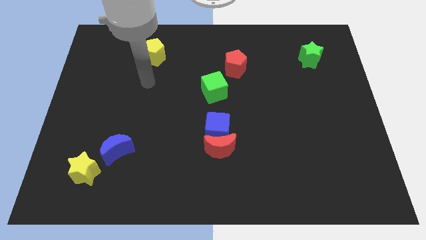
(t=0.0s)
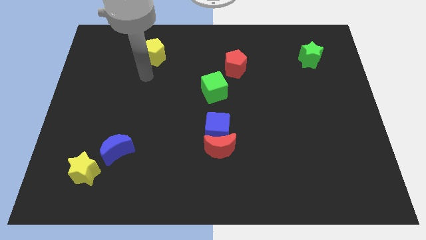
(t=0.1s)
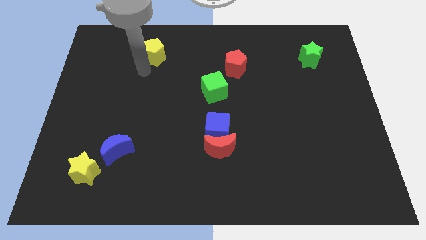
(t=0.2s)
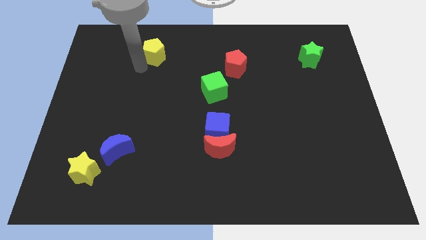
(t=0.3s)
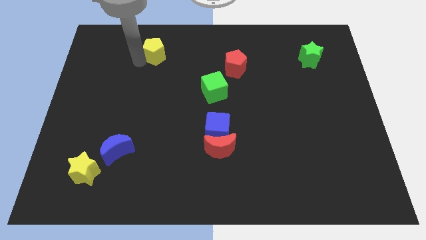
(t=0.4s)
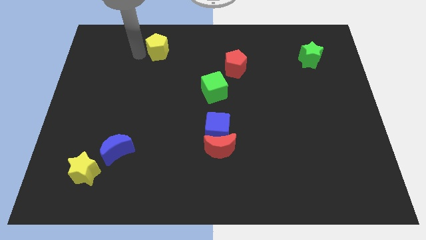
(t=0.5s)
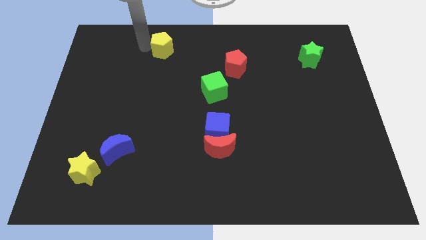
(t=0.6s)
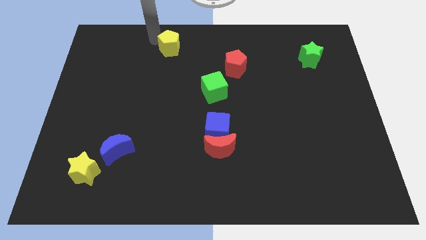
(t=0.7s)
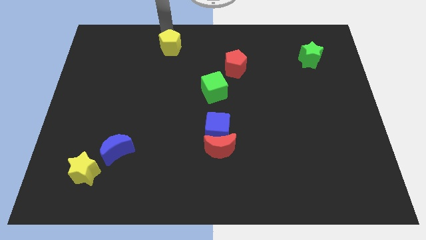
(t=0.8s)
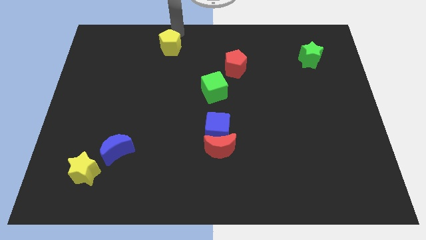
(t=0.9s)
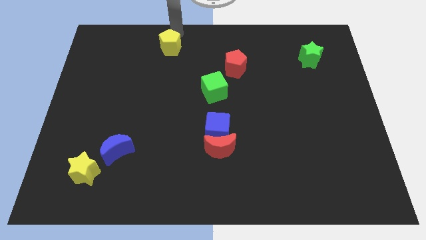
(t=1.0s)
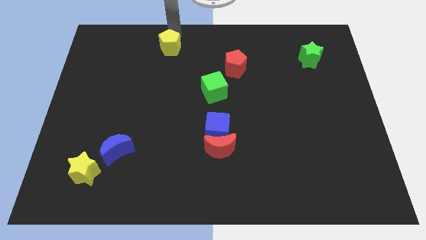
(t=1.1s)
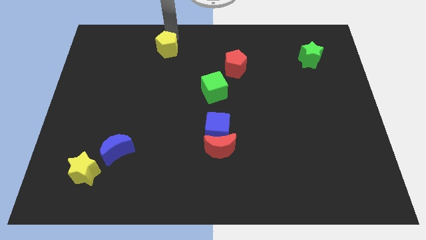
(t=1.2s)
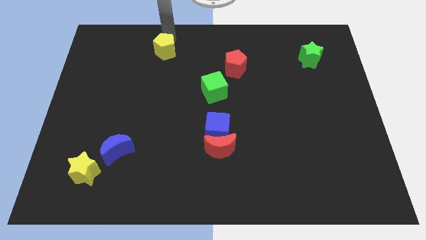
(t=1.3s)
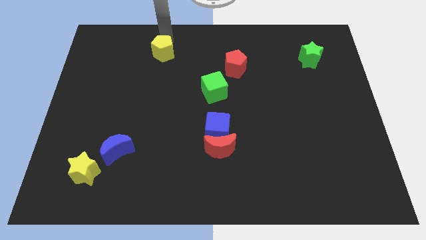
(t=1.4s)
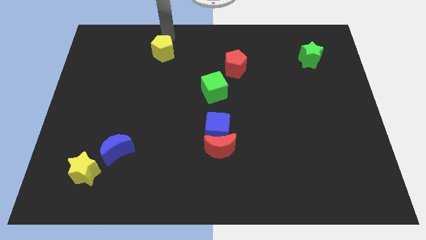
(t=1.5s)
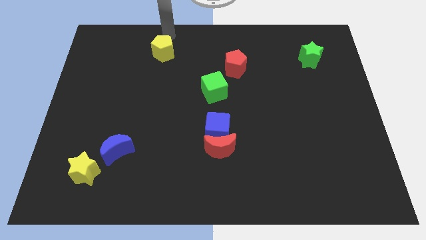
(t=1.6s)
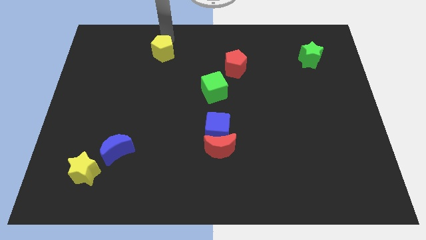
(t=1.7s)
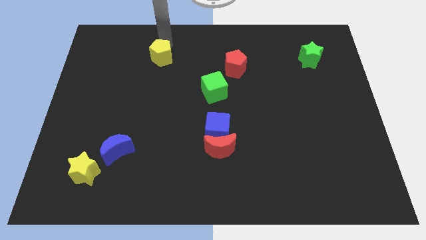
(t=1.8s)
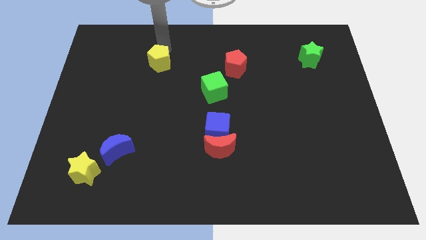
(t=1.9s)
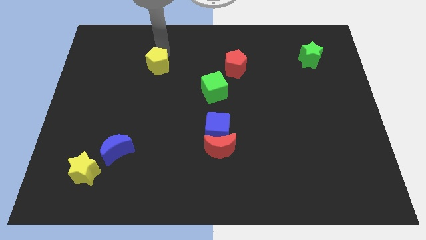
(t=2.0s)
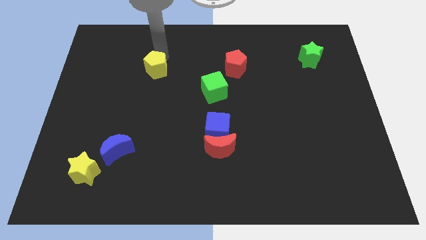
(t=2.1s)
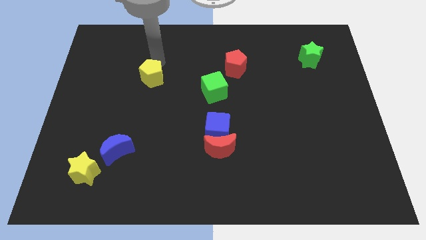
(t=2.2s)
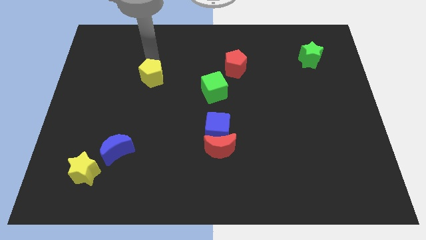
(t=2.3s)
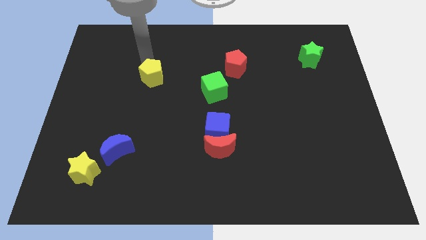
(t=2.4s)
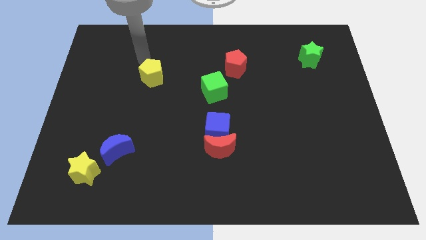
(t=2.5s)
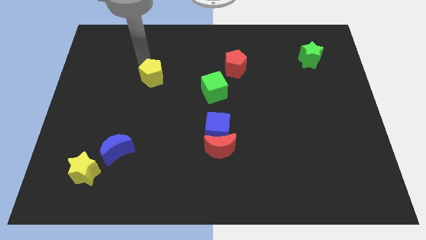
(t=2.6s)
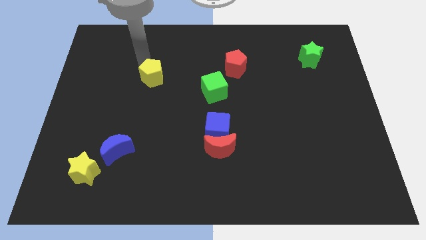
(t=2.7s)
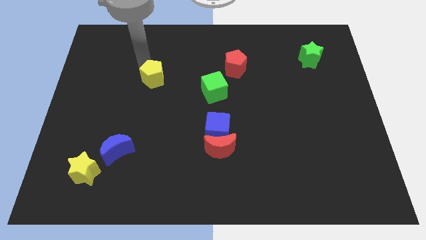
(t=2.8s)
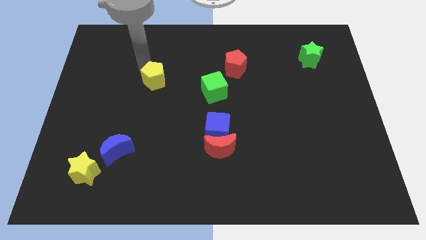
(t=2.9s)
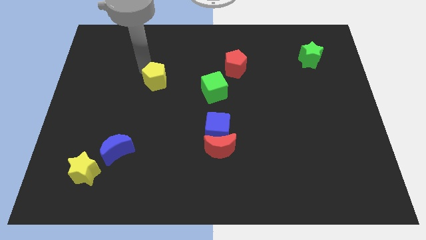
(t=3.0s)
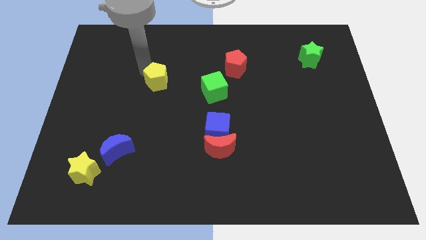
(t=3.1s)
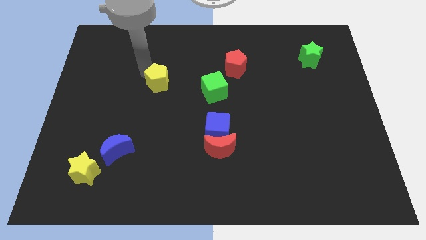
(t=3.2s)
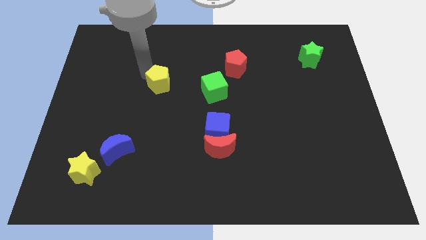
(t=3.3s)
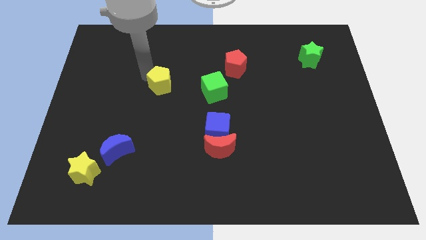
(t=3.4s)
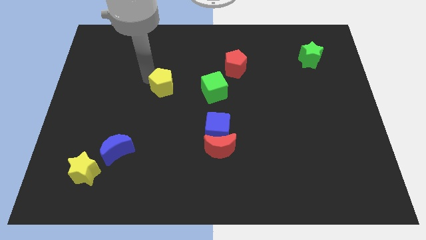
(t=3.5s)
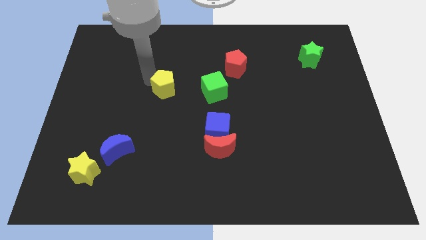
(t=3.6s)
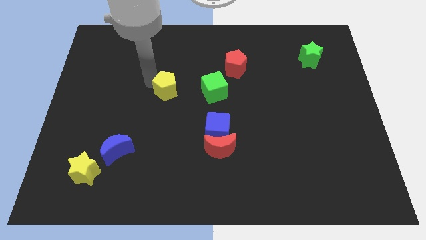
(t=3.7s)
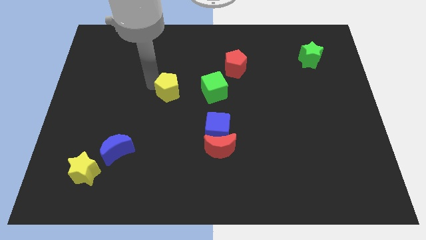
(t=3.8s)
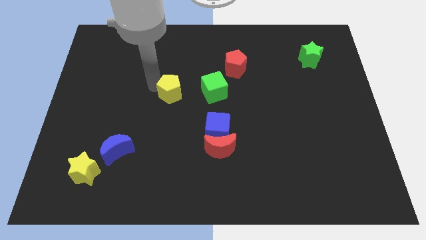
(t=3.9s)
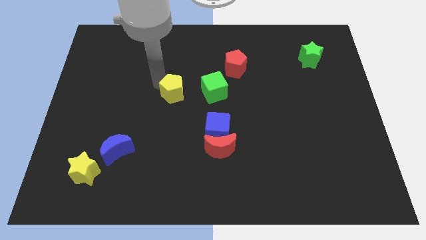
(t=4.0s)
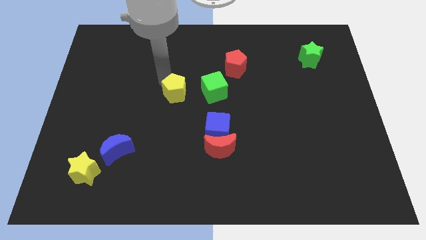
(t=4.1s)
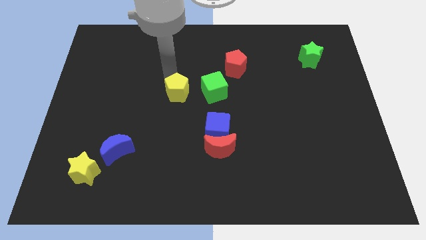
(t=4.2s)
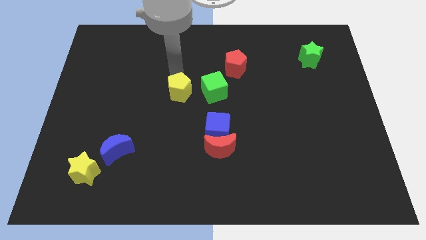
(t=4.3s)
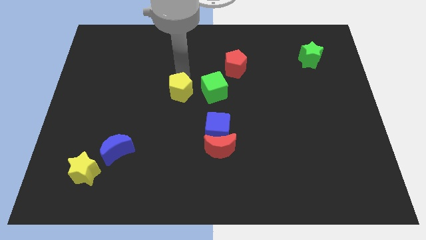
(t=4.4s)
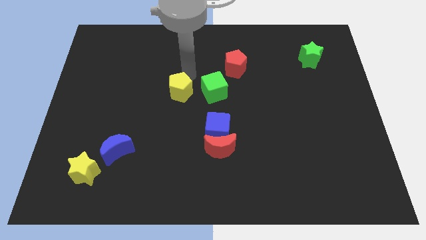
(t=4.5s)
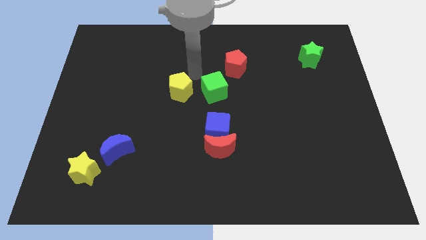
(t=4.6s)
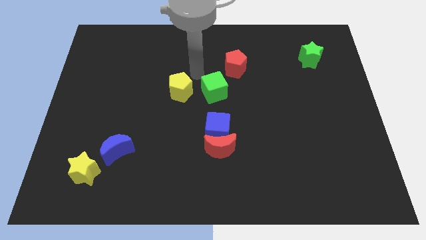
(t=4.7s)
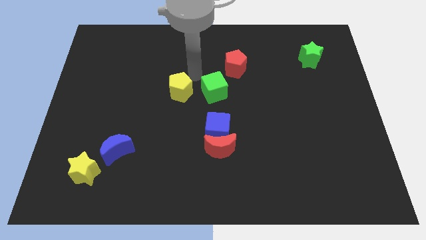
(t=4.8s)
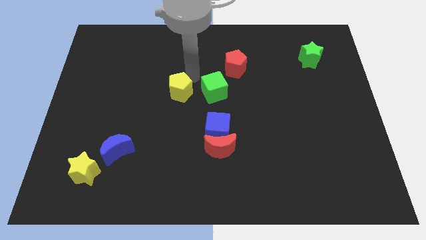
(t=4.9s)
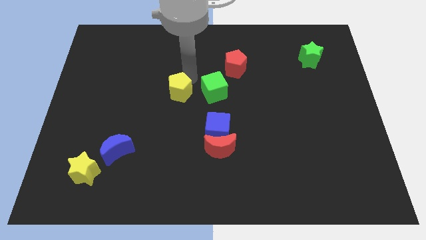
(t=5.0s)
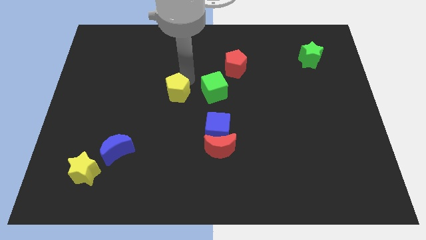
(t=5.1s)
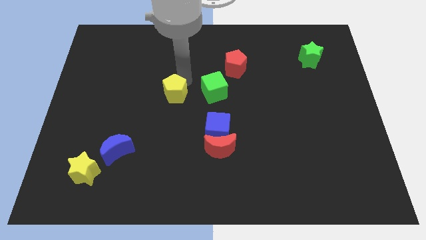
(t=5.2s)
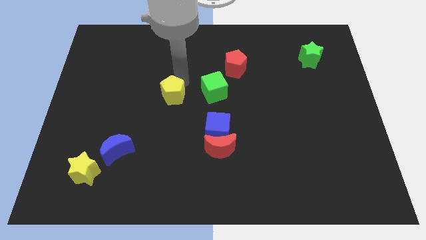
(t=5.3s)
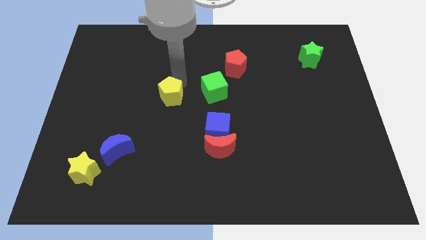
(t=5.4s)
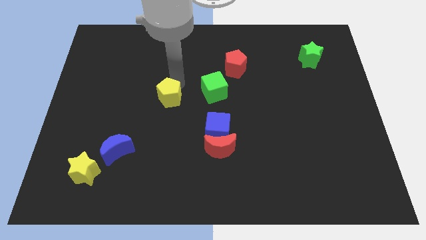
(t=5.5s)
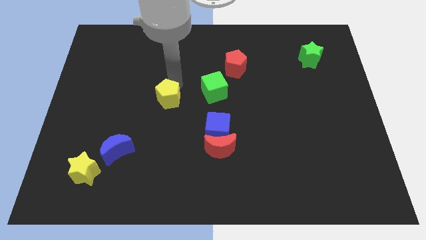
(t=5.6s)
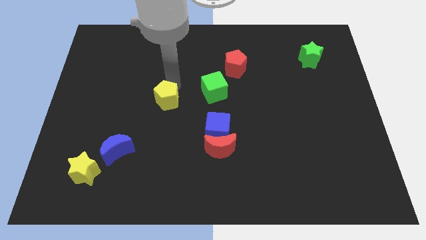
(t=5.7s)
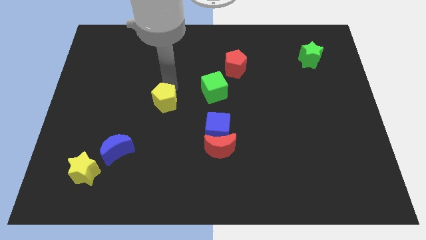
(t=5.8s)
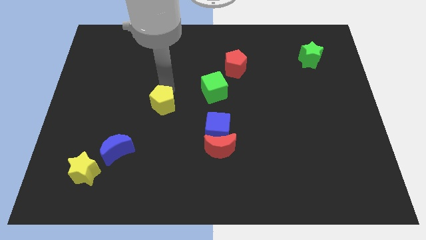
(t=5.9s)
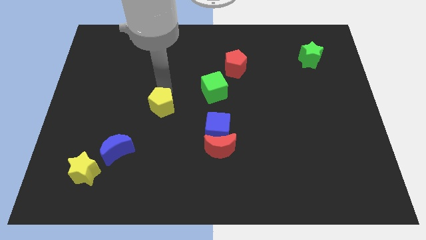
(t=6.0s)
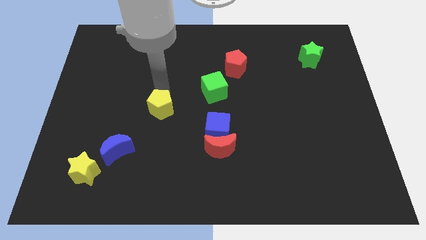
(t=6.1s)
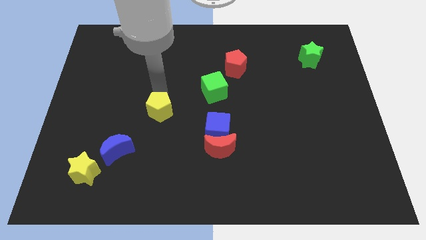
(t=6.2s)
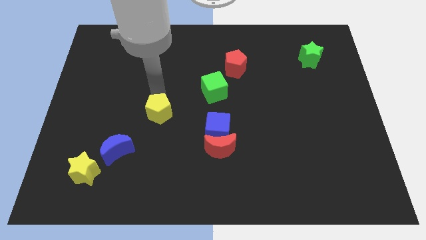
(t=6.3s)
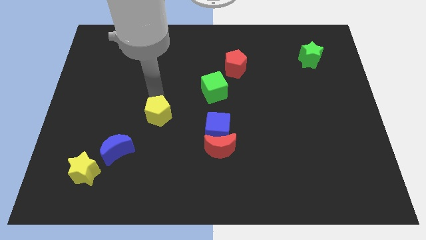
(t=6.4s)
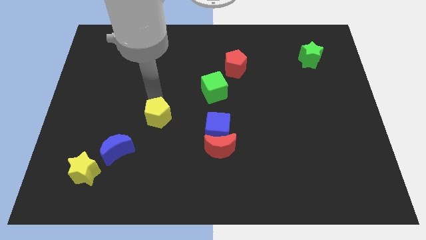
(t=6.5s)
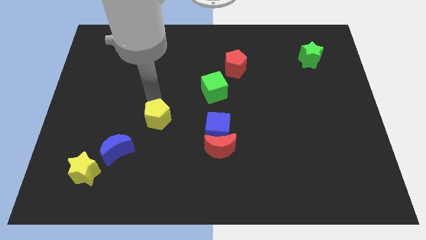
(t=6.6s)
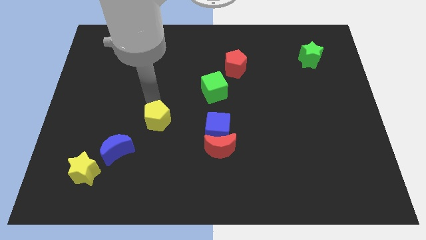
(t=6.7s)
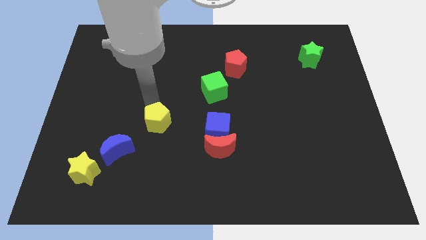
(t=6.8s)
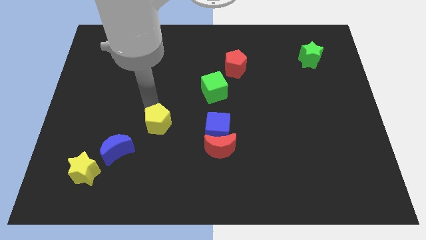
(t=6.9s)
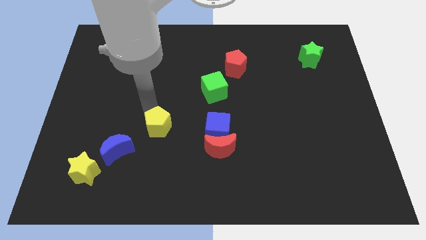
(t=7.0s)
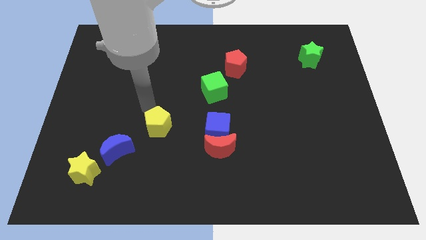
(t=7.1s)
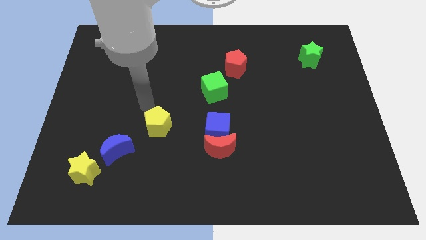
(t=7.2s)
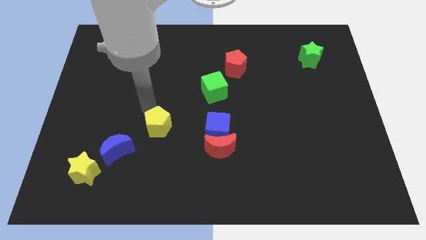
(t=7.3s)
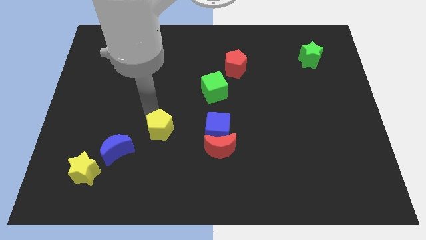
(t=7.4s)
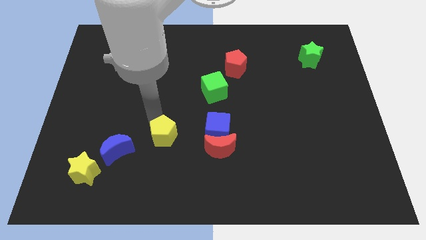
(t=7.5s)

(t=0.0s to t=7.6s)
move the yellow pentagon to the left of the red moon
